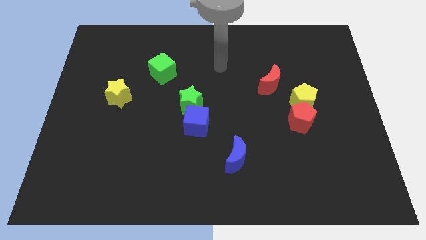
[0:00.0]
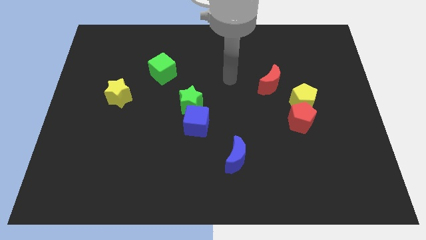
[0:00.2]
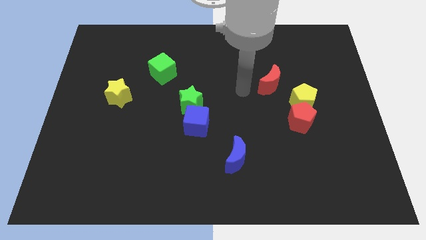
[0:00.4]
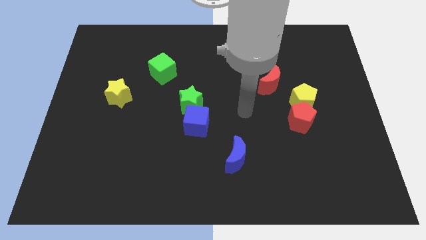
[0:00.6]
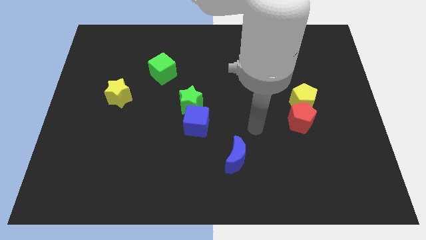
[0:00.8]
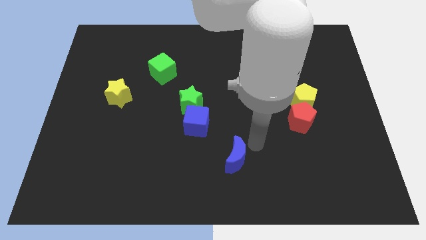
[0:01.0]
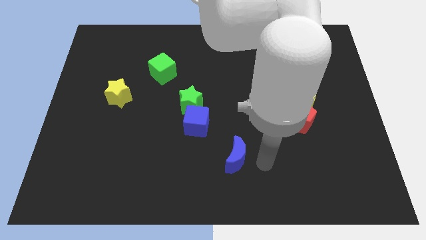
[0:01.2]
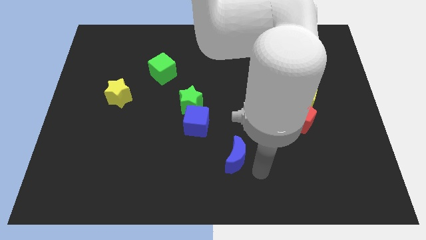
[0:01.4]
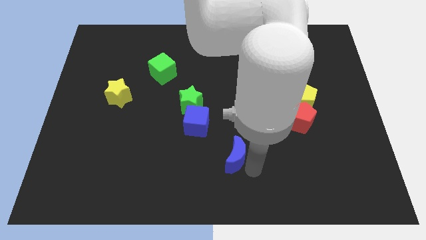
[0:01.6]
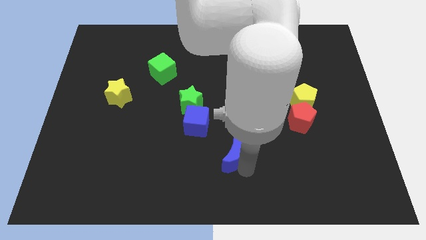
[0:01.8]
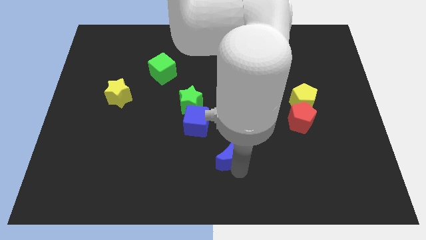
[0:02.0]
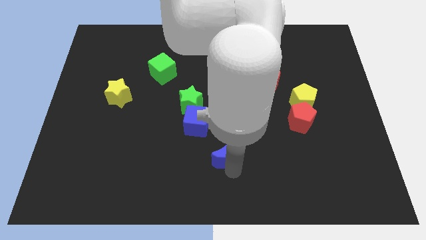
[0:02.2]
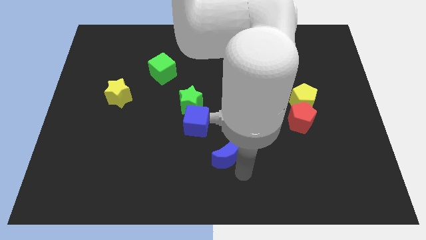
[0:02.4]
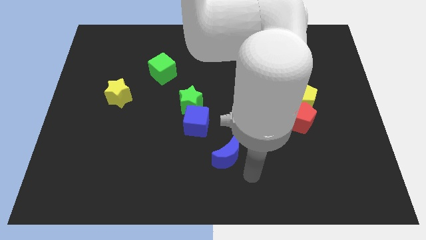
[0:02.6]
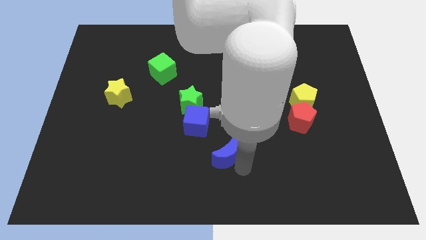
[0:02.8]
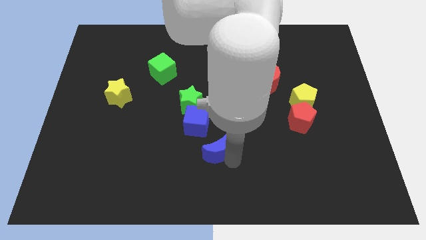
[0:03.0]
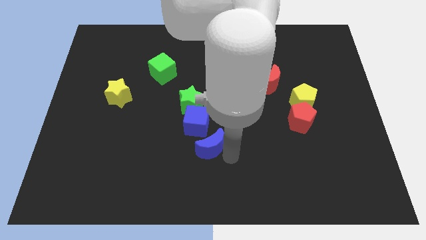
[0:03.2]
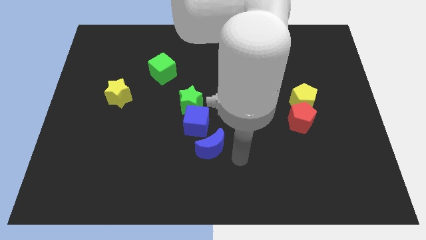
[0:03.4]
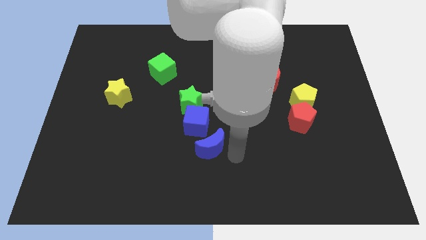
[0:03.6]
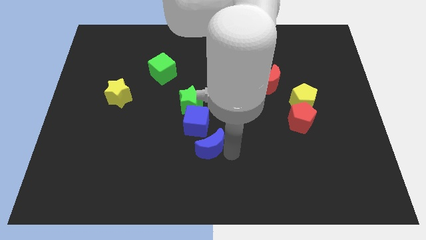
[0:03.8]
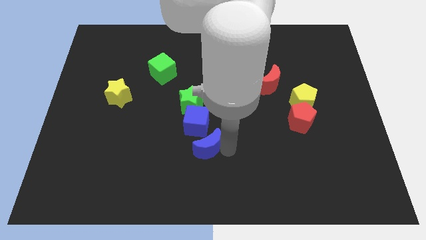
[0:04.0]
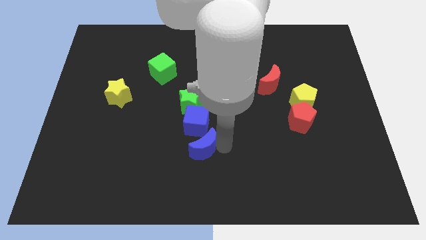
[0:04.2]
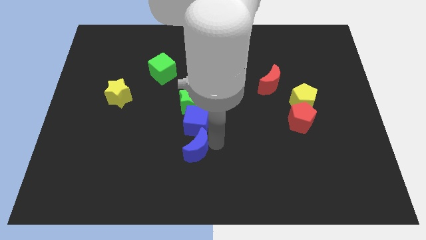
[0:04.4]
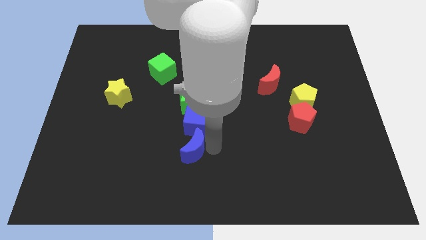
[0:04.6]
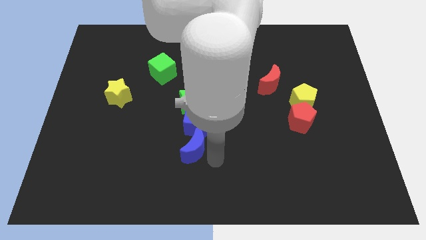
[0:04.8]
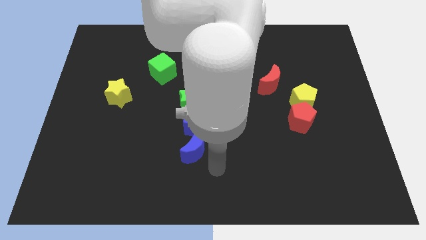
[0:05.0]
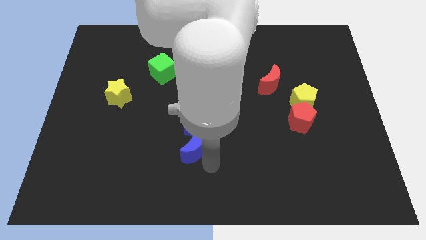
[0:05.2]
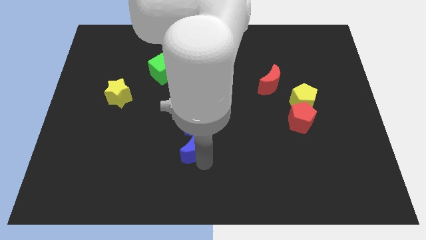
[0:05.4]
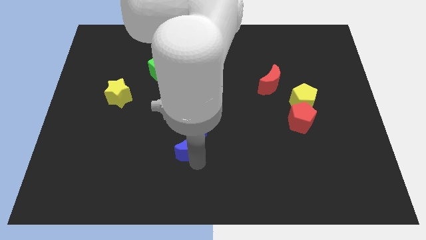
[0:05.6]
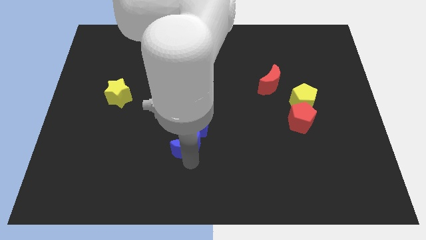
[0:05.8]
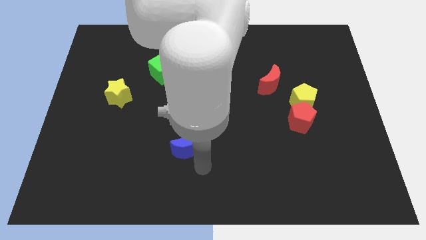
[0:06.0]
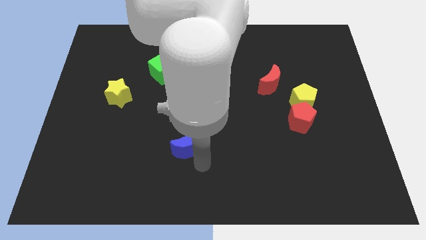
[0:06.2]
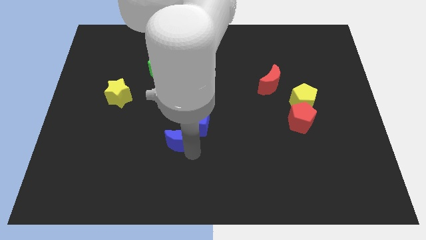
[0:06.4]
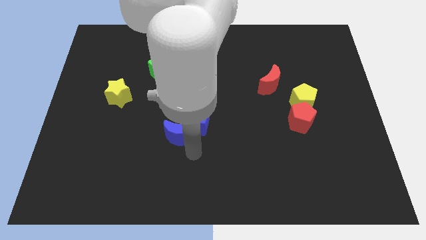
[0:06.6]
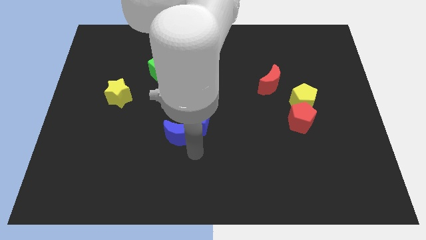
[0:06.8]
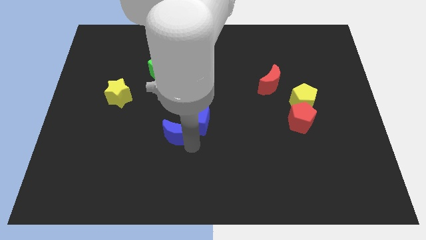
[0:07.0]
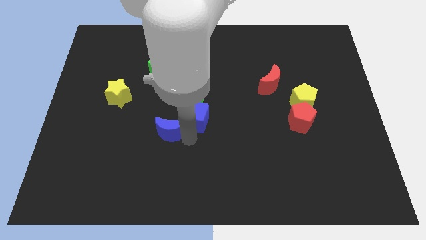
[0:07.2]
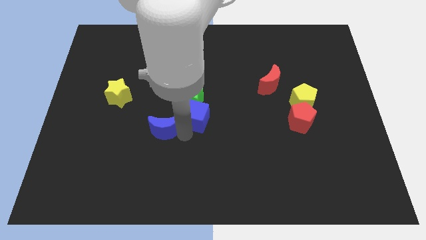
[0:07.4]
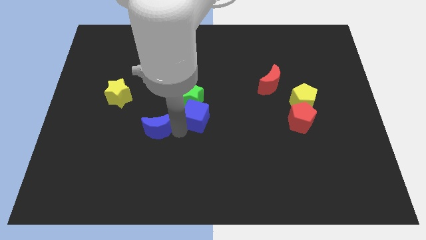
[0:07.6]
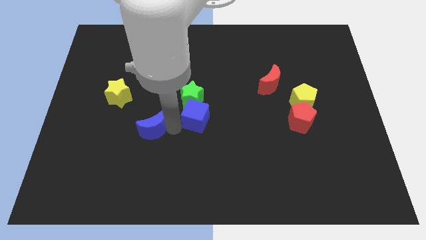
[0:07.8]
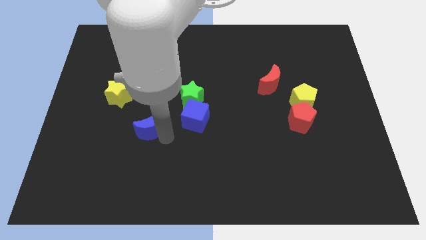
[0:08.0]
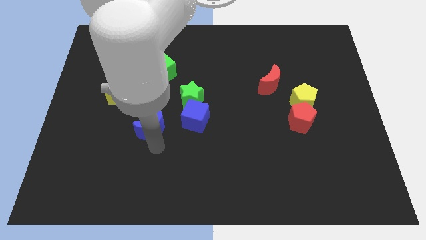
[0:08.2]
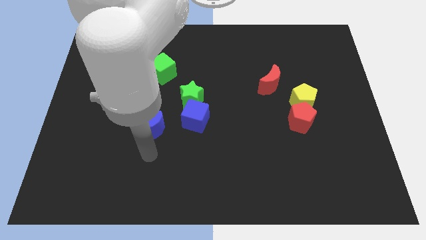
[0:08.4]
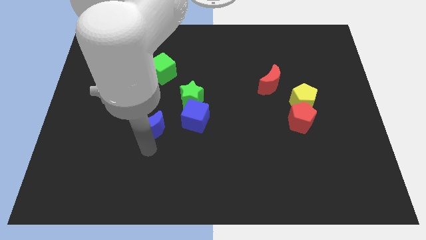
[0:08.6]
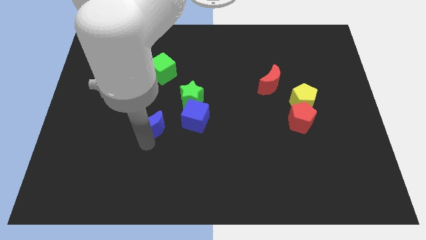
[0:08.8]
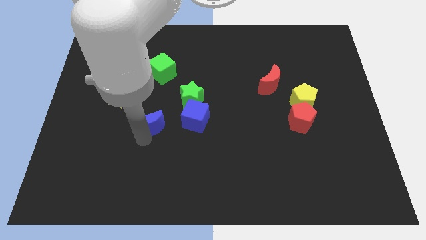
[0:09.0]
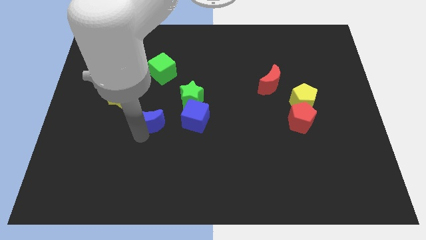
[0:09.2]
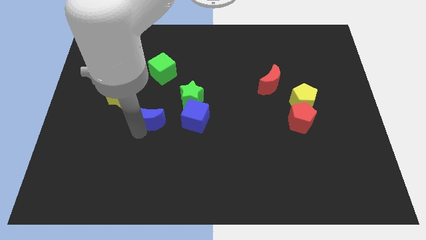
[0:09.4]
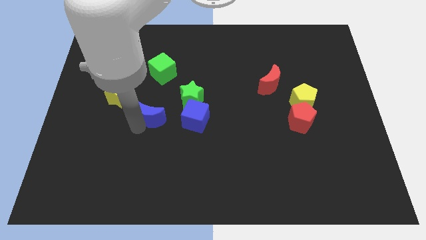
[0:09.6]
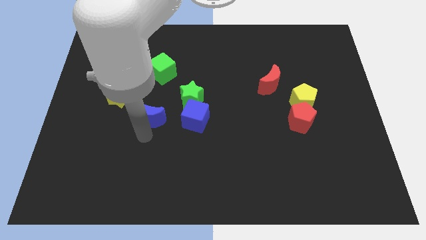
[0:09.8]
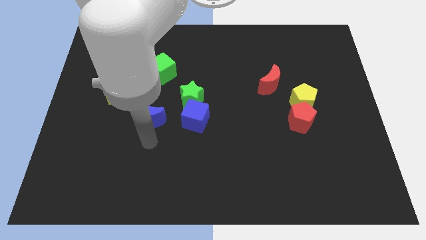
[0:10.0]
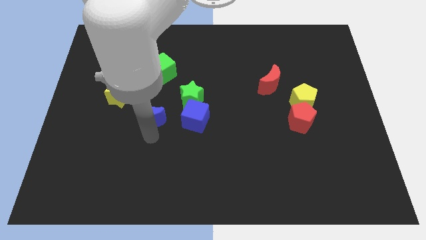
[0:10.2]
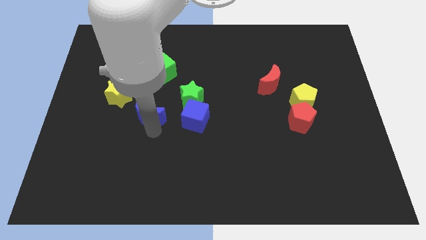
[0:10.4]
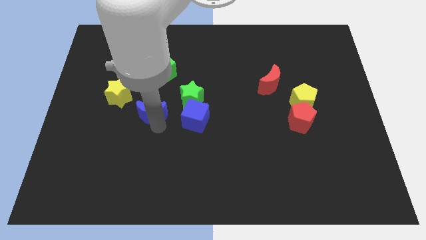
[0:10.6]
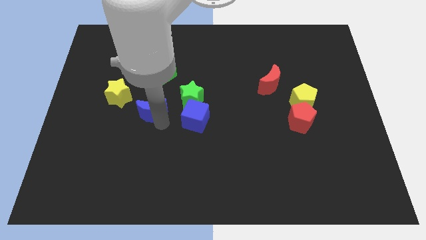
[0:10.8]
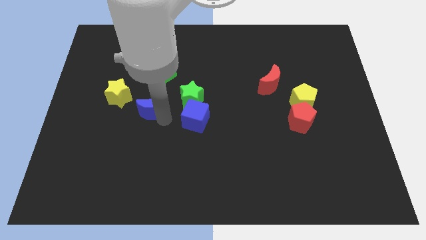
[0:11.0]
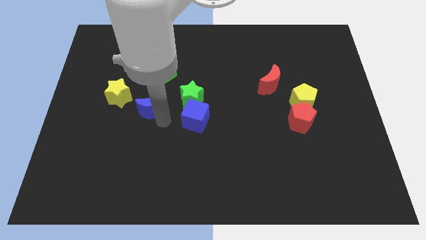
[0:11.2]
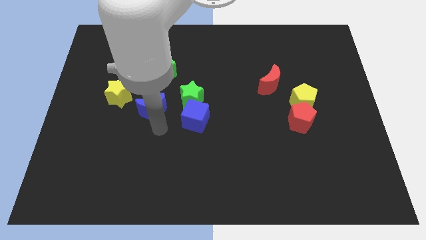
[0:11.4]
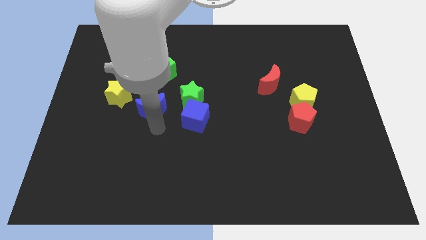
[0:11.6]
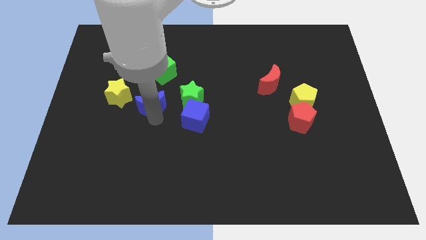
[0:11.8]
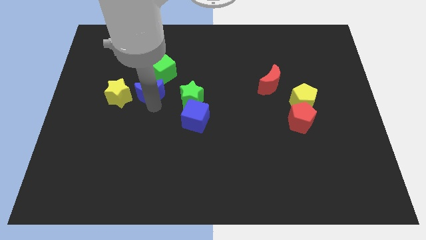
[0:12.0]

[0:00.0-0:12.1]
push the blue moon diagonally up and to the right of the yellow star
